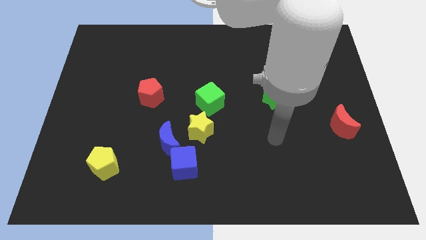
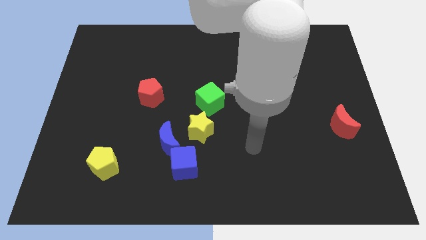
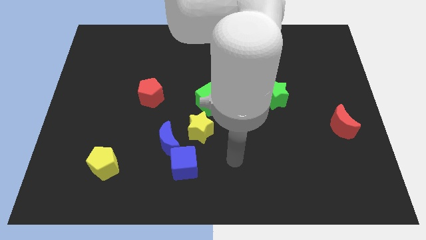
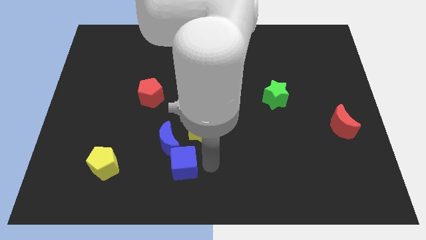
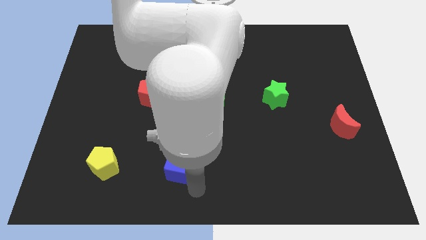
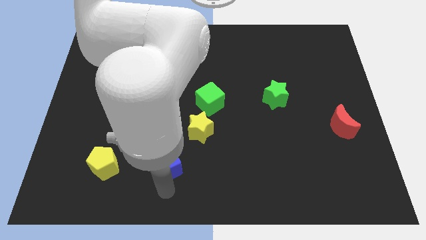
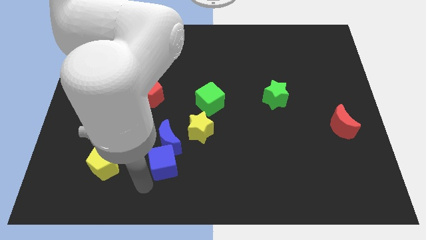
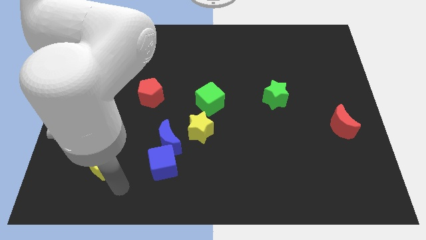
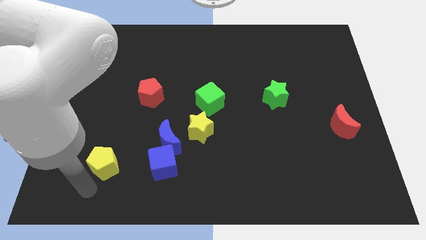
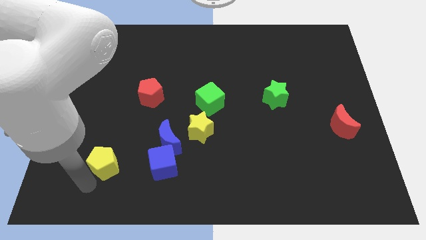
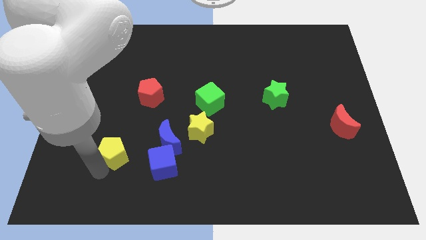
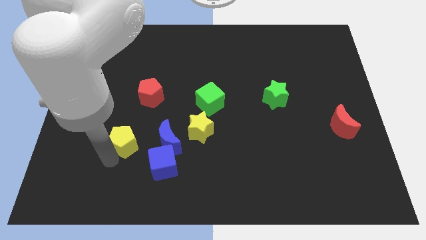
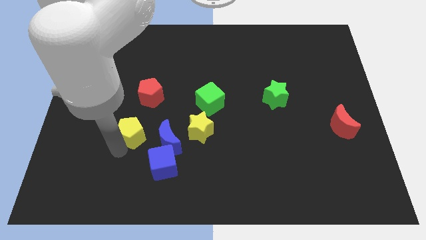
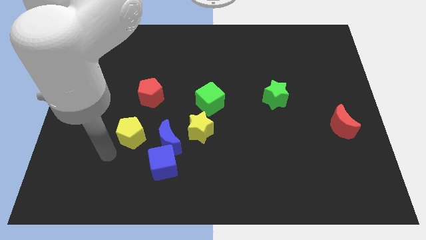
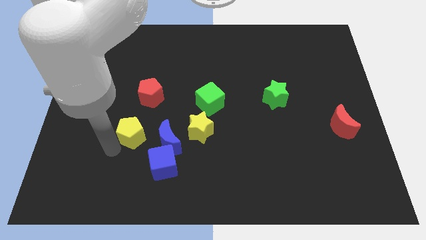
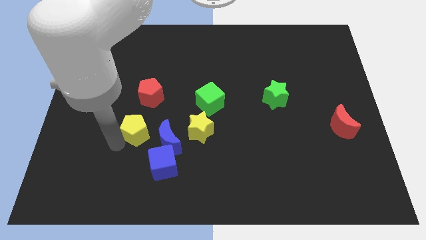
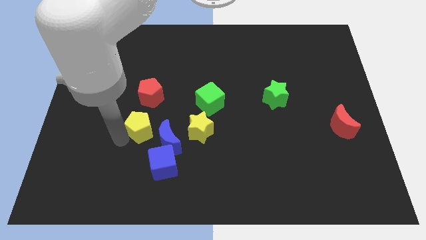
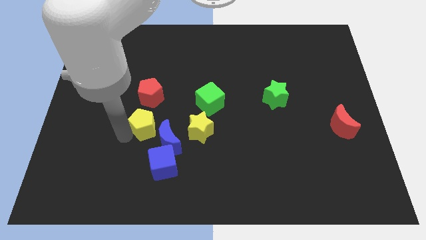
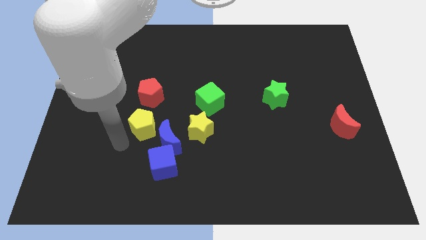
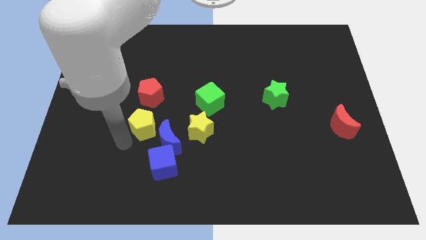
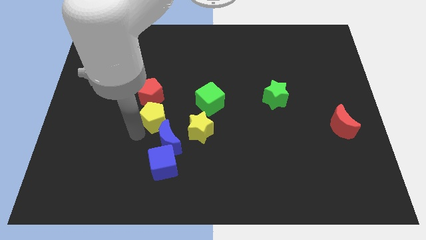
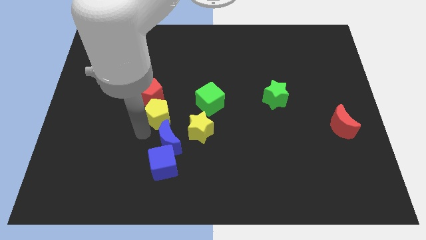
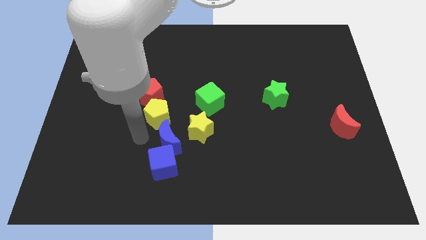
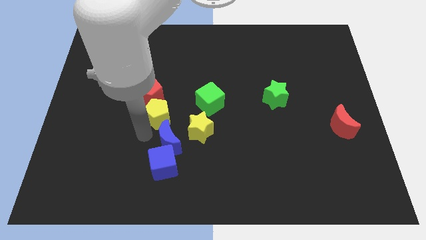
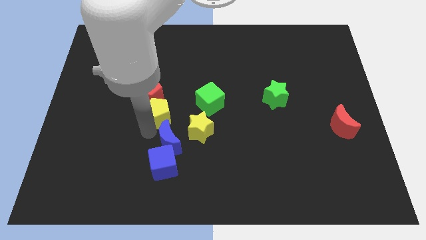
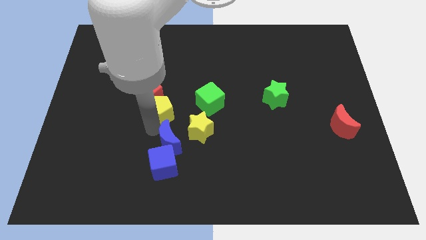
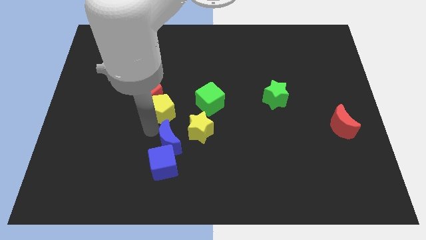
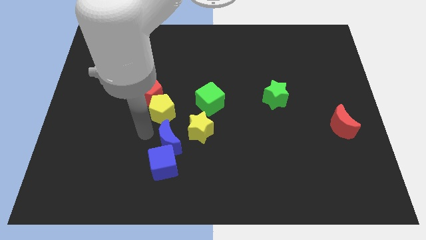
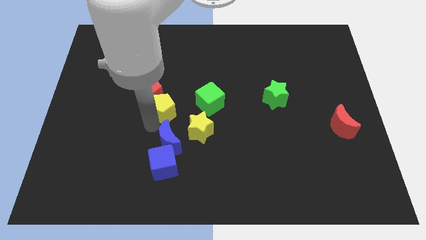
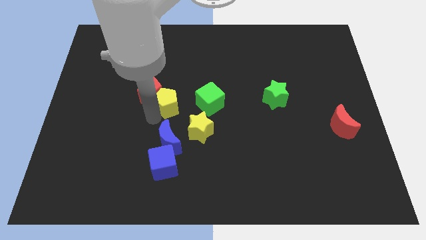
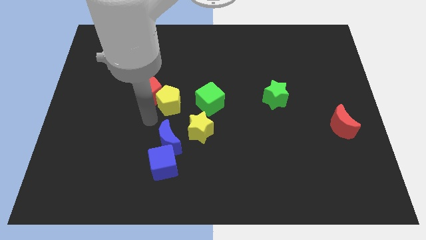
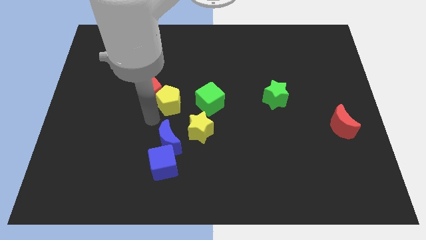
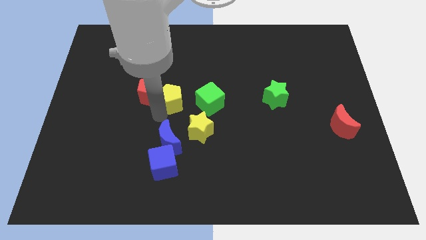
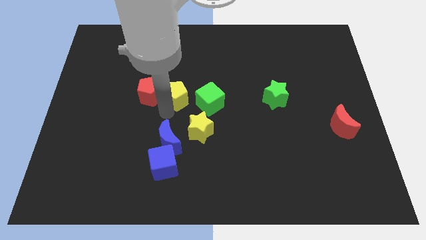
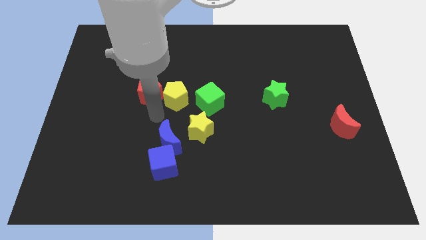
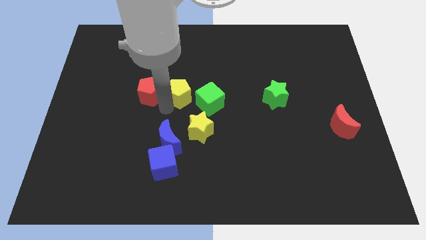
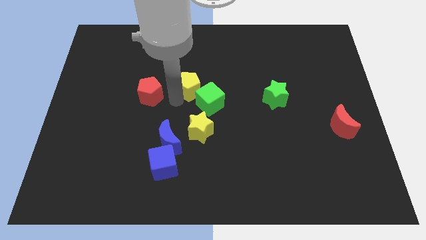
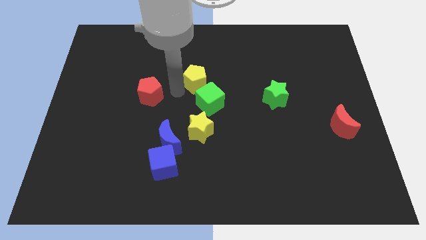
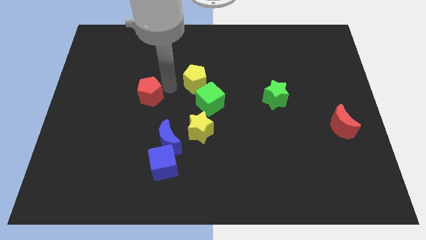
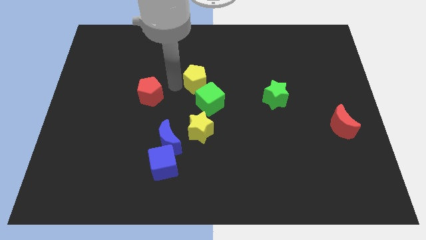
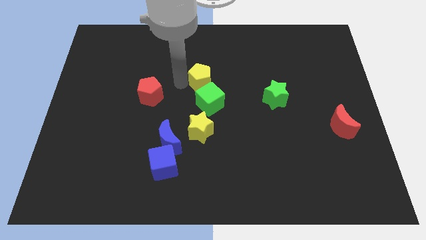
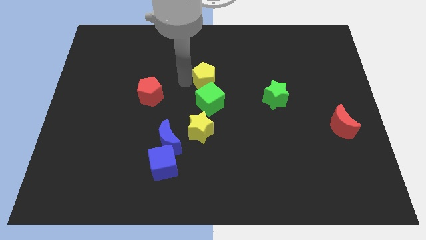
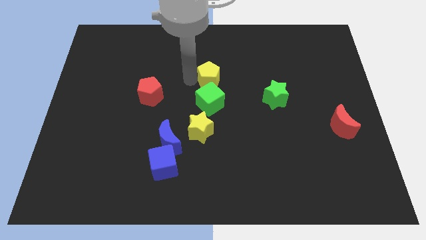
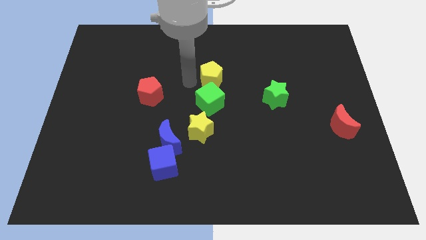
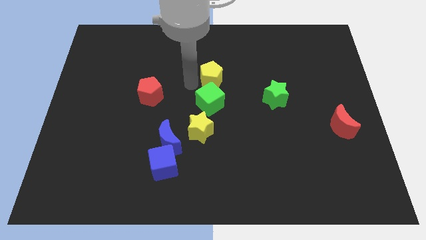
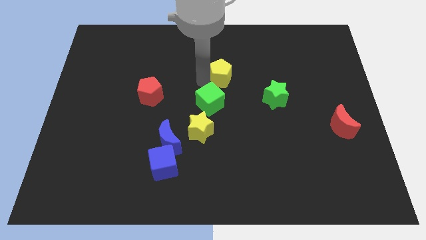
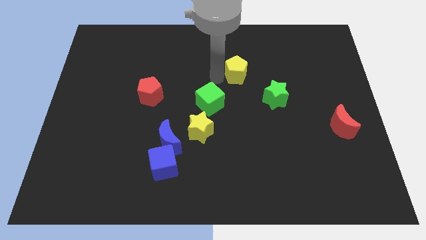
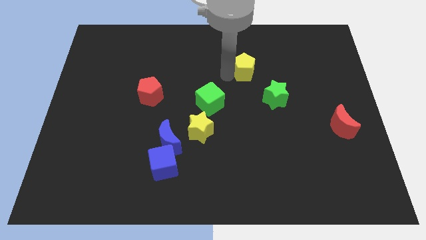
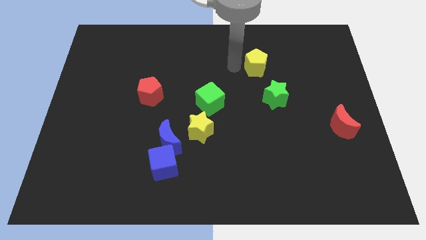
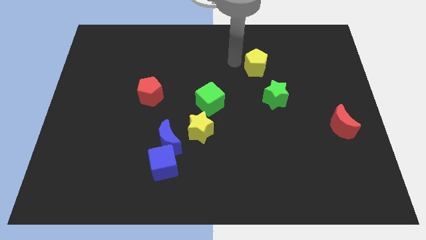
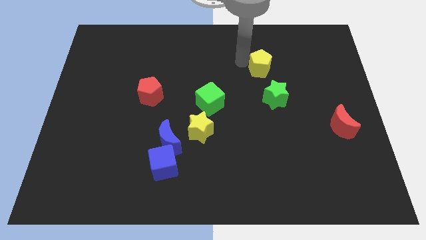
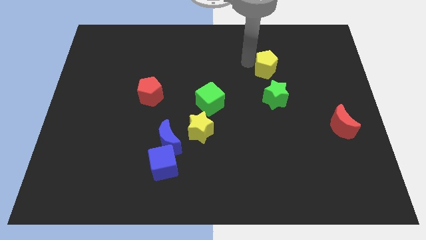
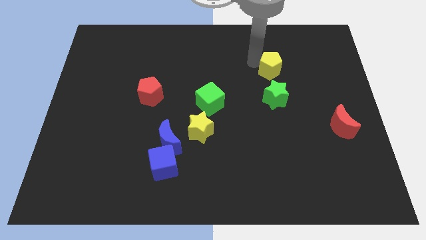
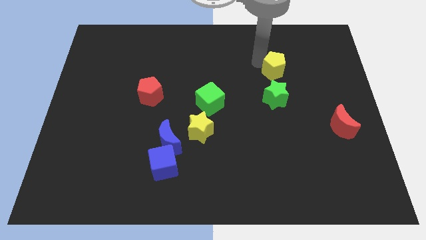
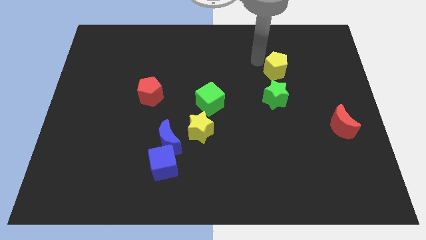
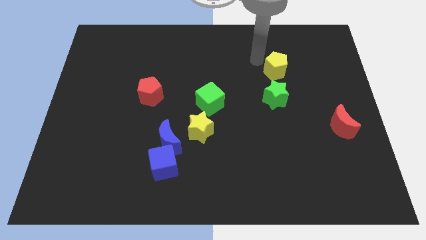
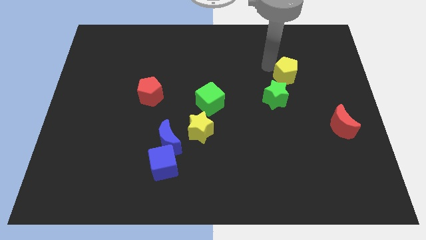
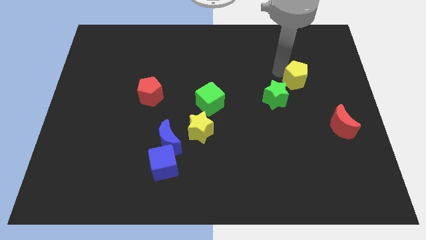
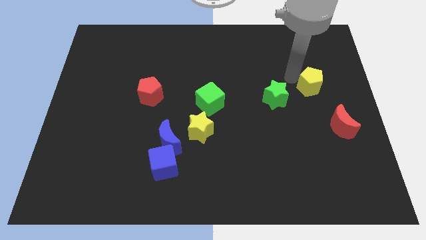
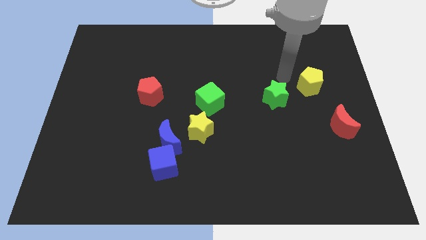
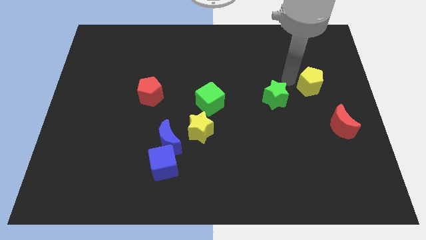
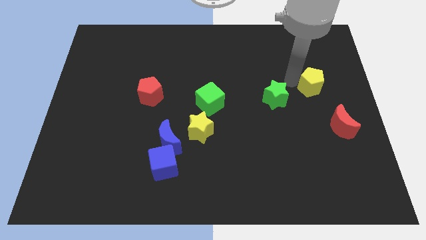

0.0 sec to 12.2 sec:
push the yellow pentagon to the top side of the red moon
